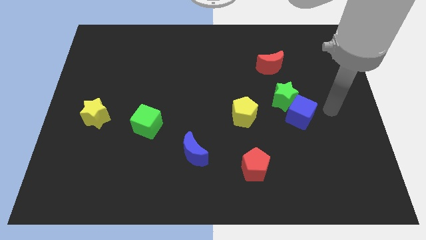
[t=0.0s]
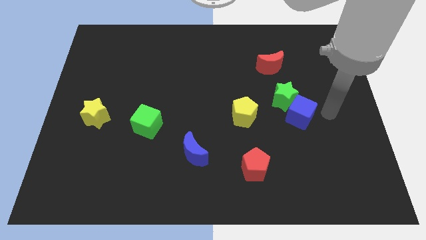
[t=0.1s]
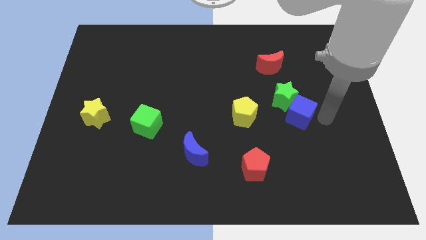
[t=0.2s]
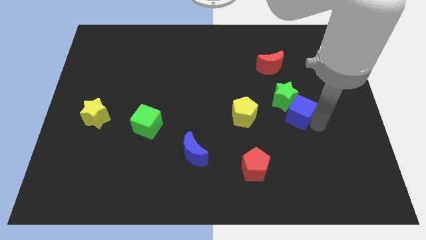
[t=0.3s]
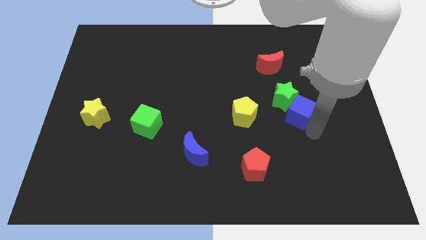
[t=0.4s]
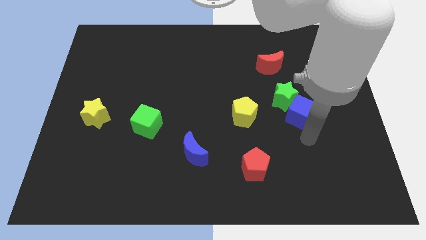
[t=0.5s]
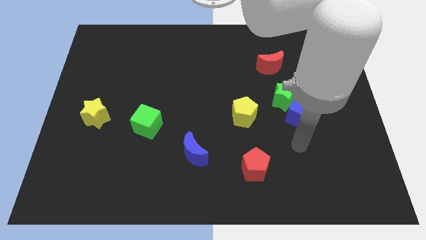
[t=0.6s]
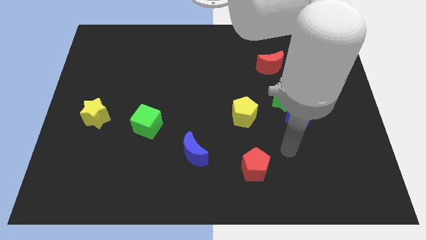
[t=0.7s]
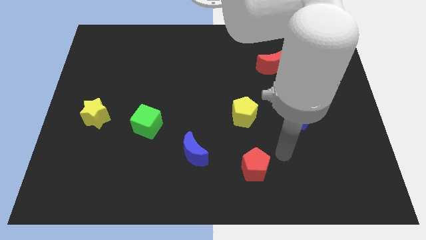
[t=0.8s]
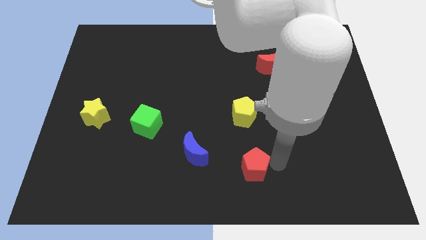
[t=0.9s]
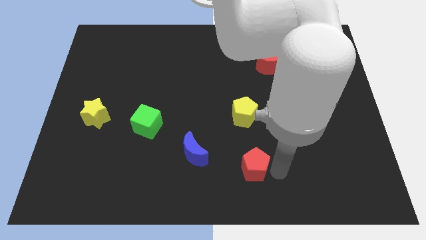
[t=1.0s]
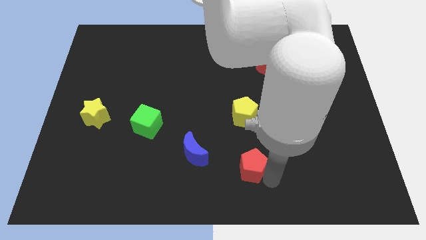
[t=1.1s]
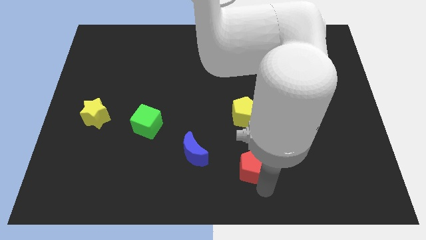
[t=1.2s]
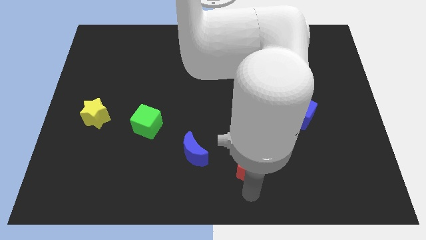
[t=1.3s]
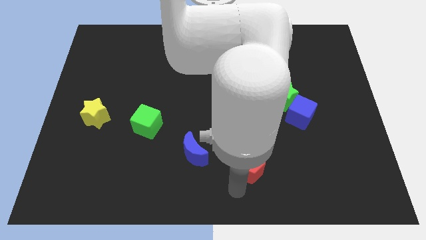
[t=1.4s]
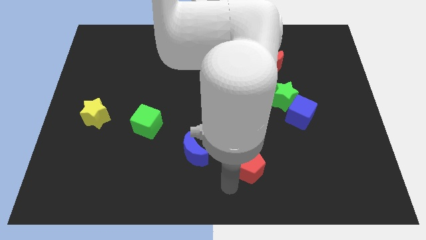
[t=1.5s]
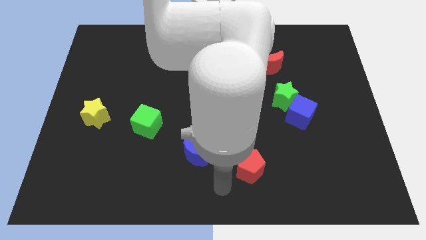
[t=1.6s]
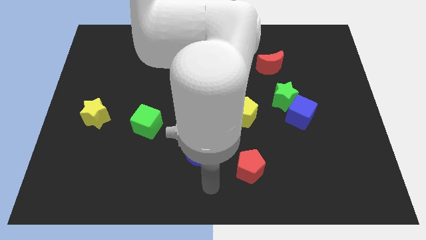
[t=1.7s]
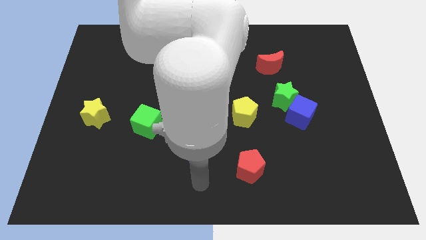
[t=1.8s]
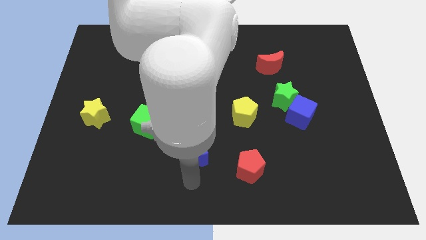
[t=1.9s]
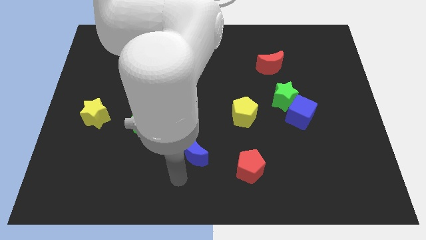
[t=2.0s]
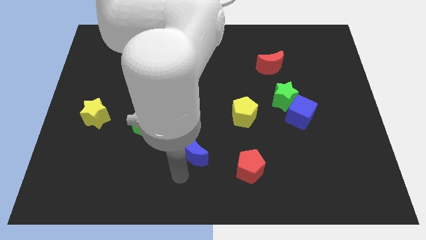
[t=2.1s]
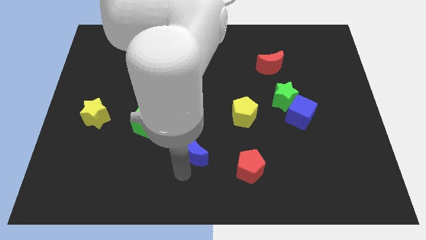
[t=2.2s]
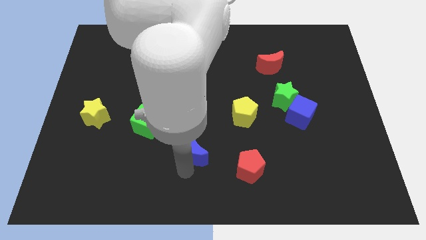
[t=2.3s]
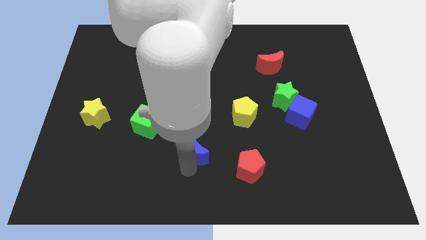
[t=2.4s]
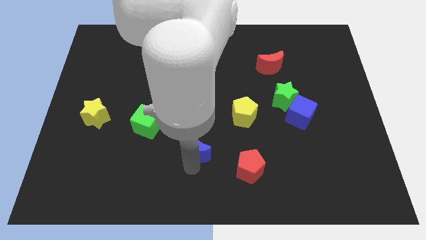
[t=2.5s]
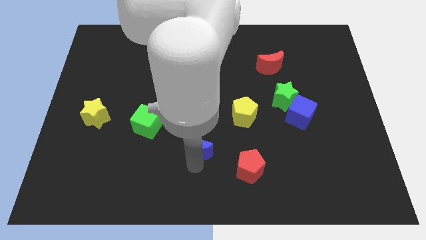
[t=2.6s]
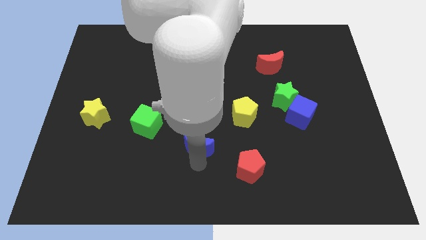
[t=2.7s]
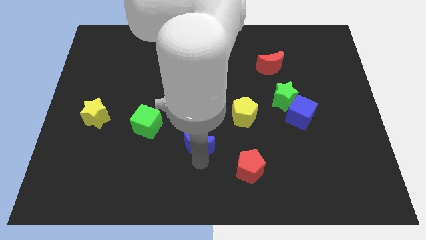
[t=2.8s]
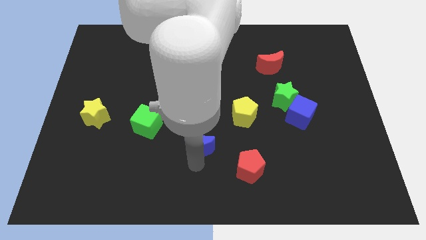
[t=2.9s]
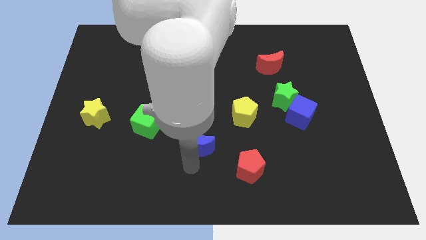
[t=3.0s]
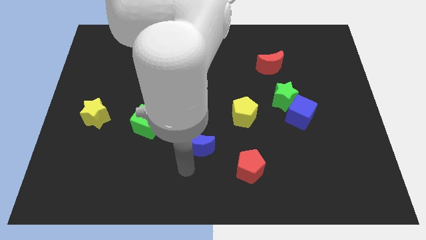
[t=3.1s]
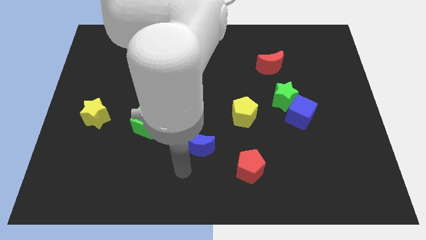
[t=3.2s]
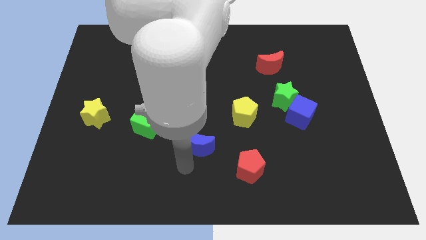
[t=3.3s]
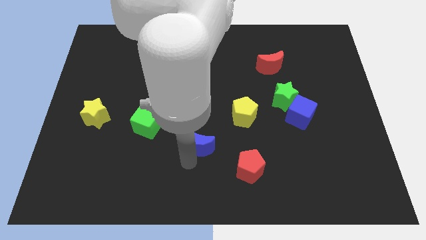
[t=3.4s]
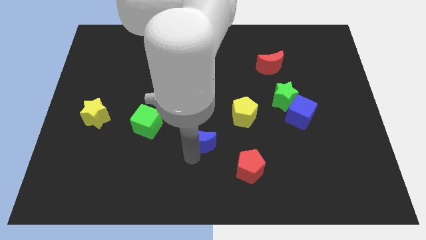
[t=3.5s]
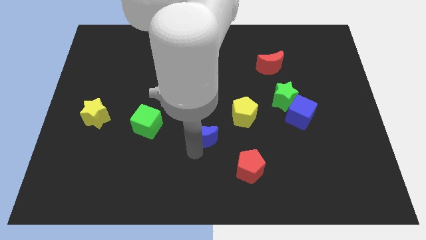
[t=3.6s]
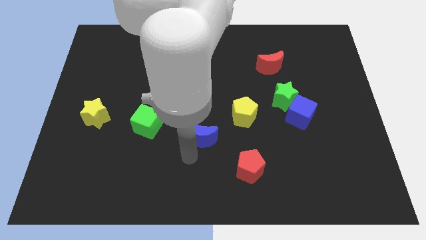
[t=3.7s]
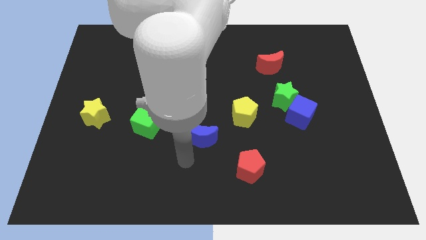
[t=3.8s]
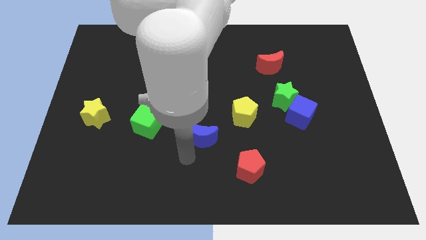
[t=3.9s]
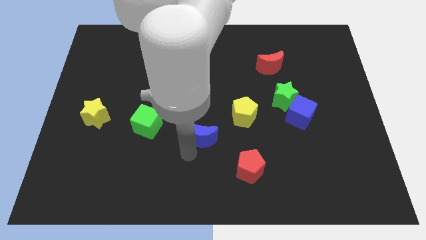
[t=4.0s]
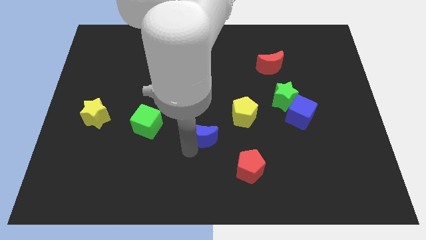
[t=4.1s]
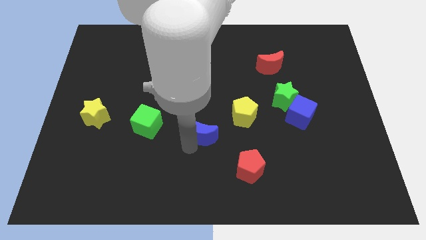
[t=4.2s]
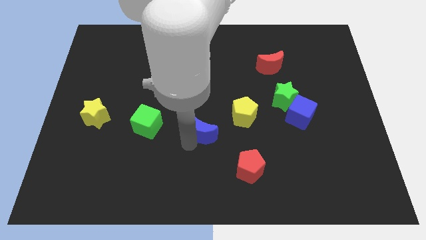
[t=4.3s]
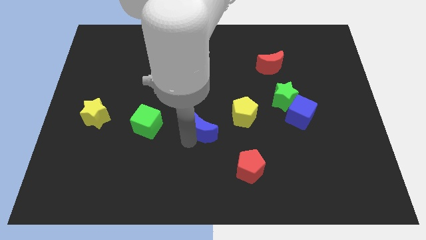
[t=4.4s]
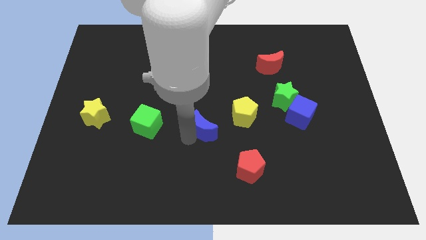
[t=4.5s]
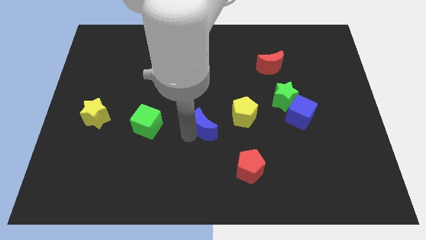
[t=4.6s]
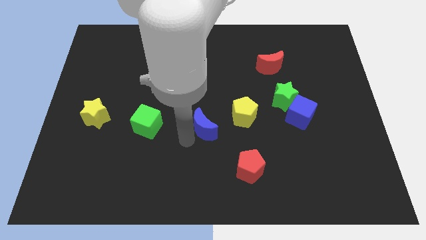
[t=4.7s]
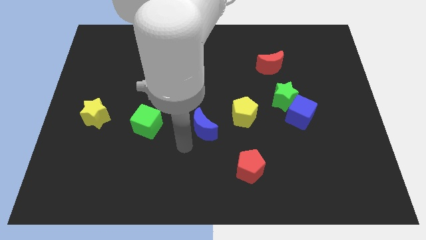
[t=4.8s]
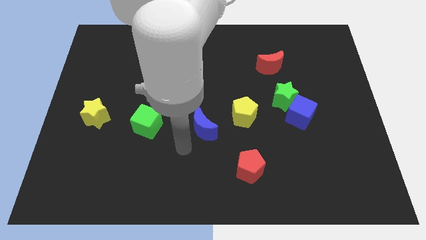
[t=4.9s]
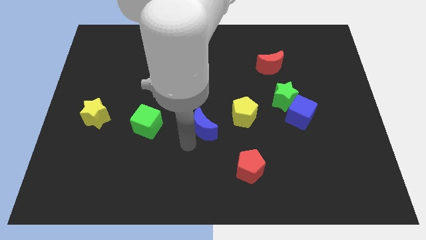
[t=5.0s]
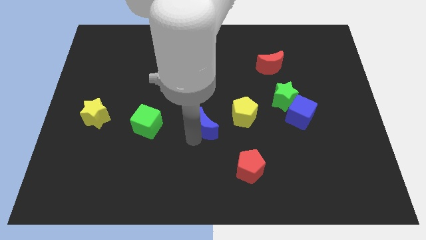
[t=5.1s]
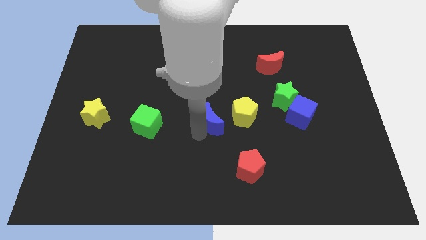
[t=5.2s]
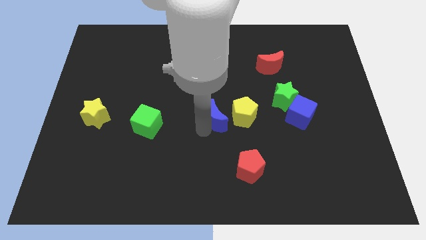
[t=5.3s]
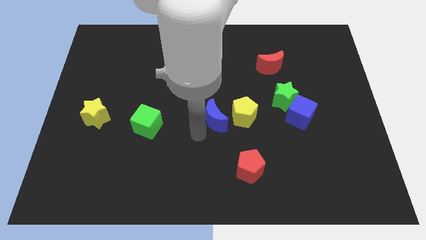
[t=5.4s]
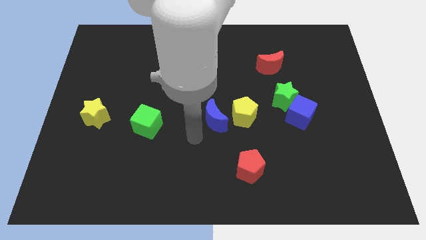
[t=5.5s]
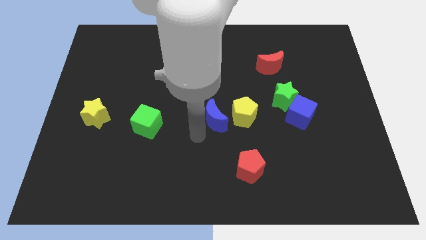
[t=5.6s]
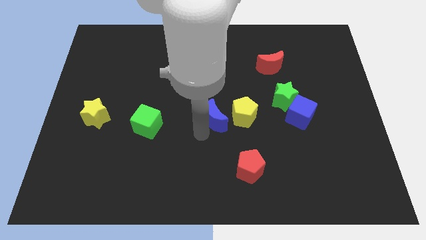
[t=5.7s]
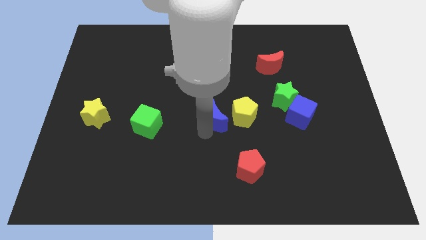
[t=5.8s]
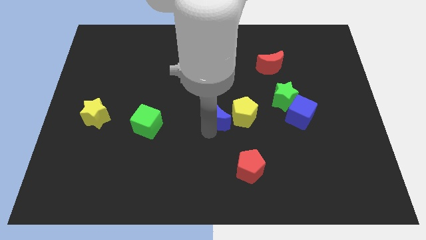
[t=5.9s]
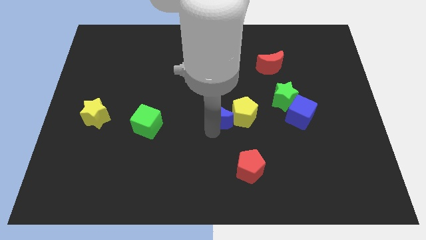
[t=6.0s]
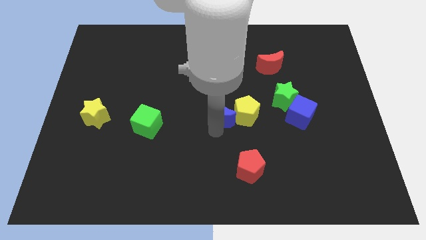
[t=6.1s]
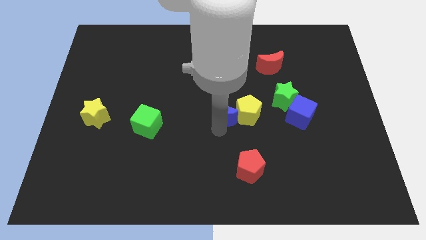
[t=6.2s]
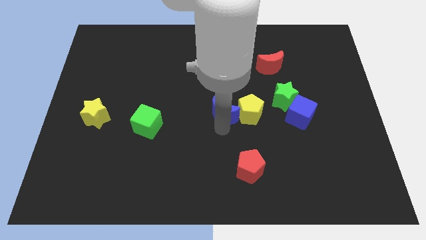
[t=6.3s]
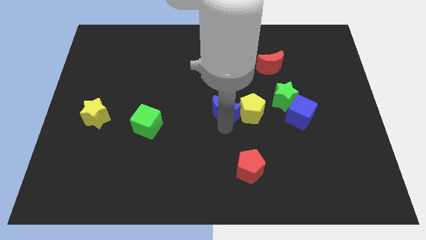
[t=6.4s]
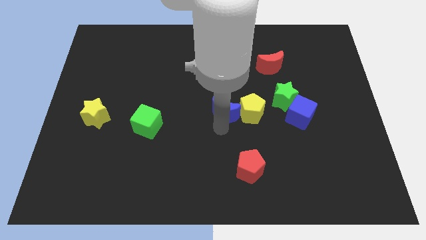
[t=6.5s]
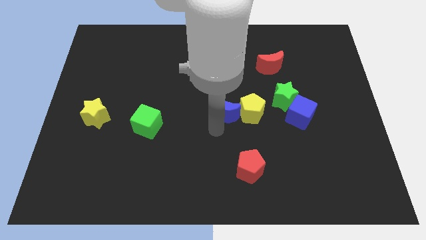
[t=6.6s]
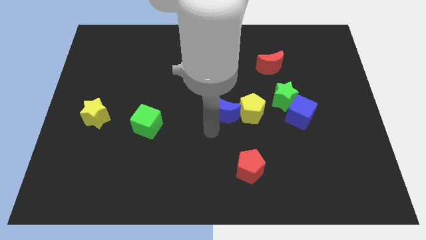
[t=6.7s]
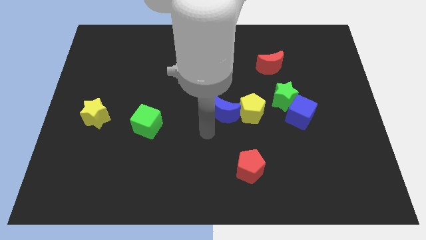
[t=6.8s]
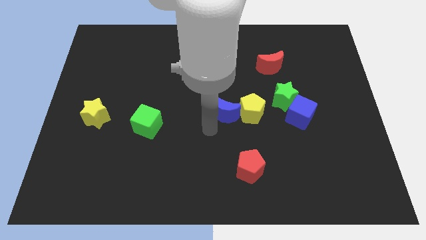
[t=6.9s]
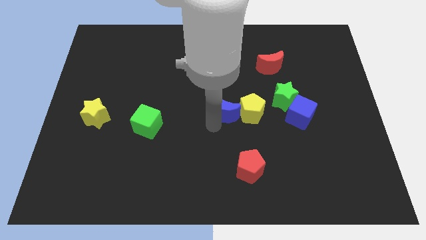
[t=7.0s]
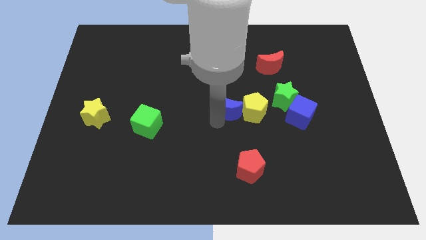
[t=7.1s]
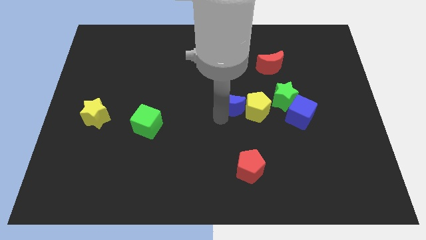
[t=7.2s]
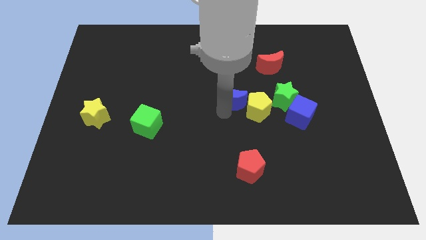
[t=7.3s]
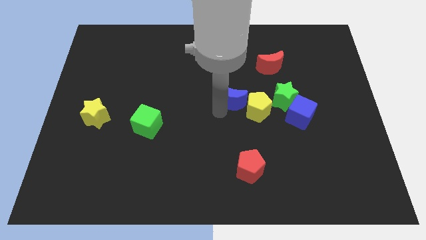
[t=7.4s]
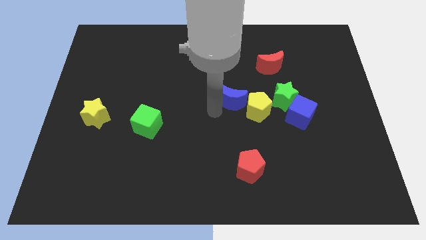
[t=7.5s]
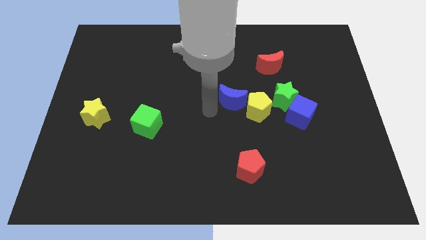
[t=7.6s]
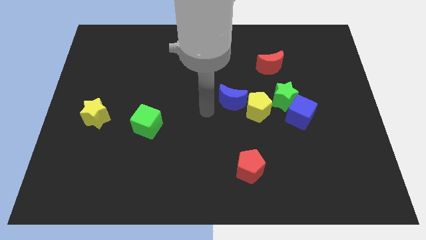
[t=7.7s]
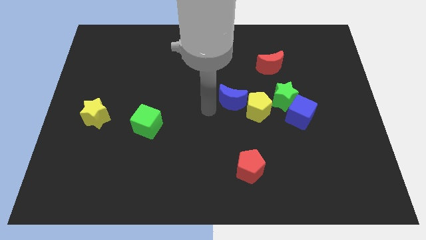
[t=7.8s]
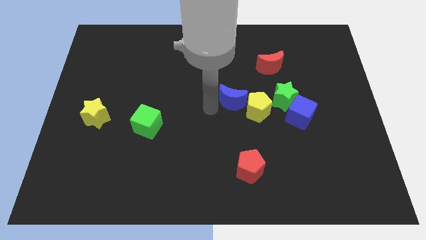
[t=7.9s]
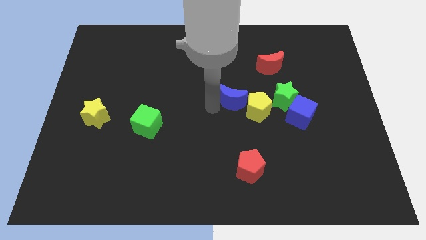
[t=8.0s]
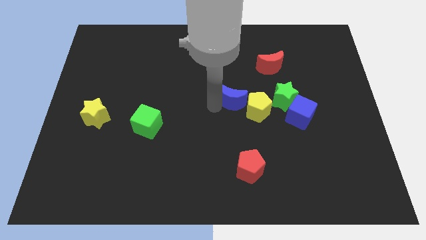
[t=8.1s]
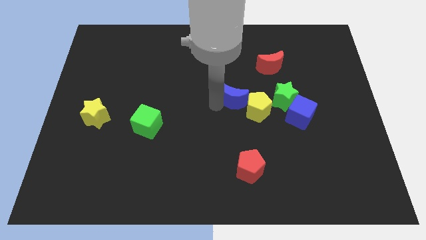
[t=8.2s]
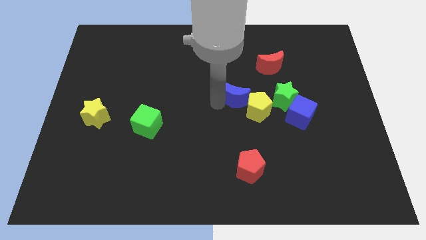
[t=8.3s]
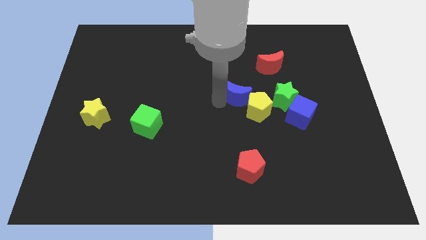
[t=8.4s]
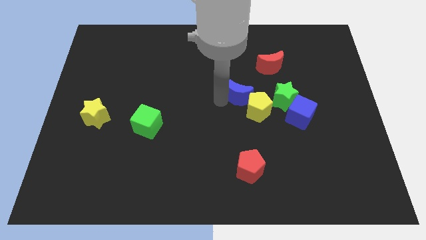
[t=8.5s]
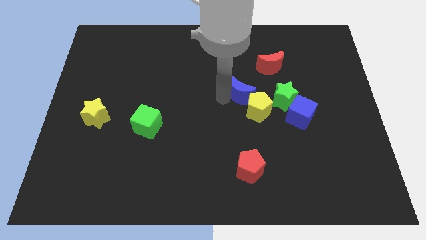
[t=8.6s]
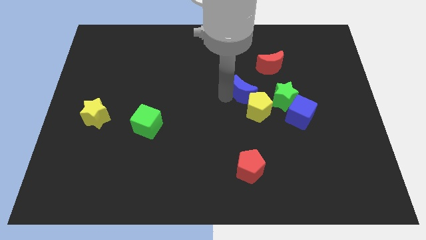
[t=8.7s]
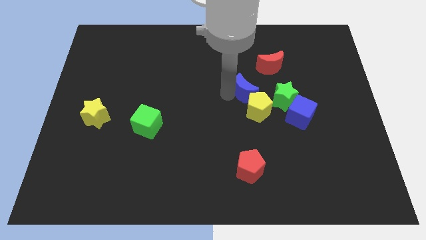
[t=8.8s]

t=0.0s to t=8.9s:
slide the blue moon upwards and to the right
